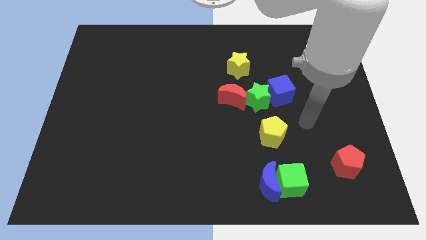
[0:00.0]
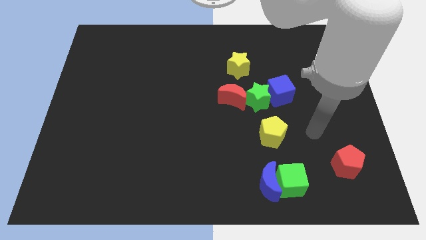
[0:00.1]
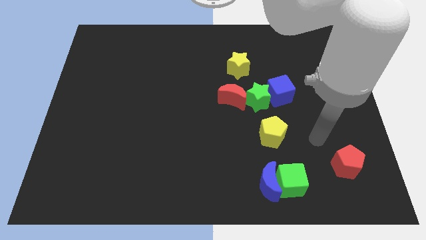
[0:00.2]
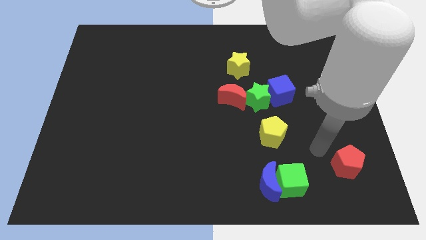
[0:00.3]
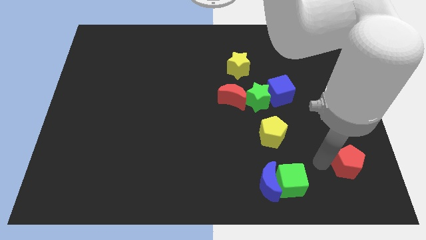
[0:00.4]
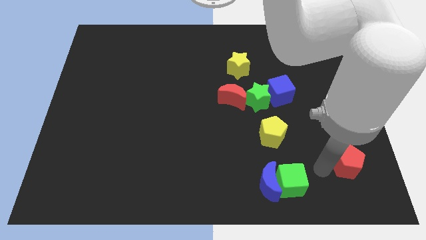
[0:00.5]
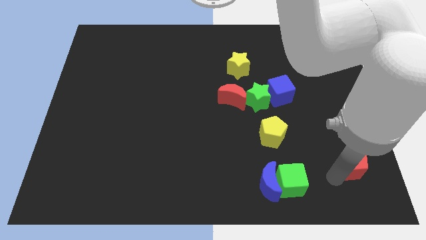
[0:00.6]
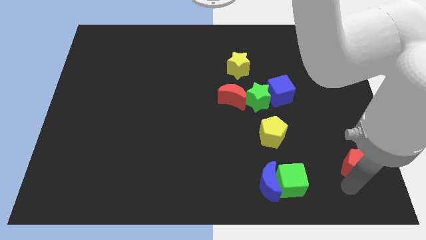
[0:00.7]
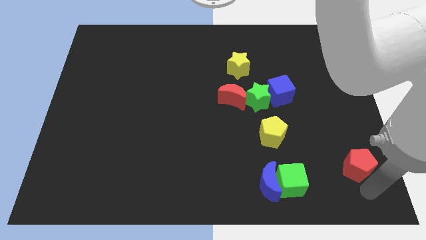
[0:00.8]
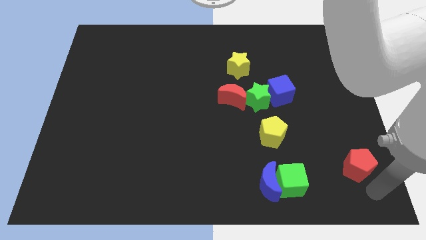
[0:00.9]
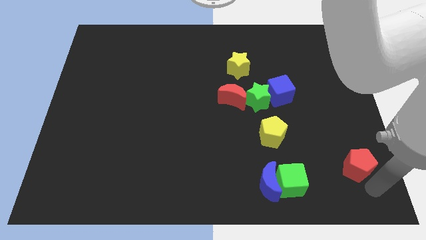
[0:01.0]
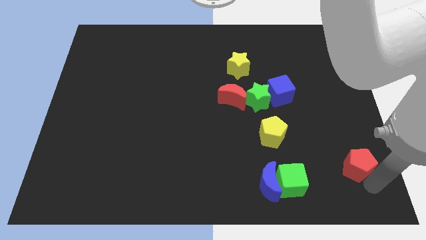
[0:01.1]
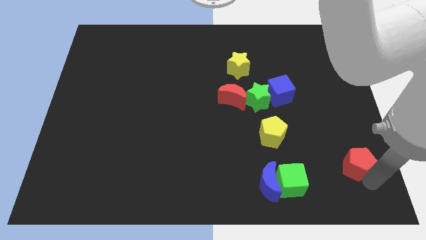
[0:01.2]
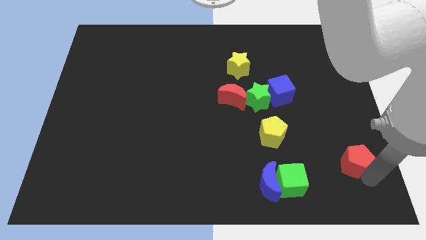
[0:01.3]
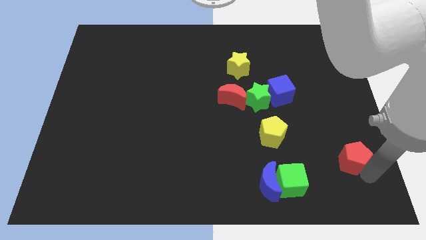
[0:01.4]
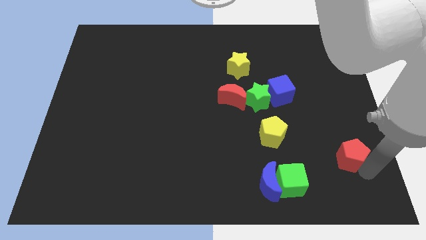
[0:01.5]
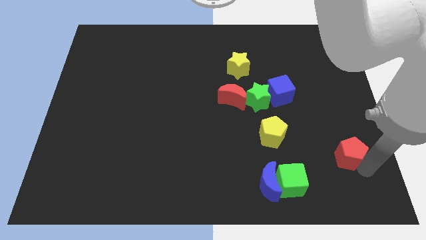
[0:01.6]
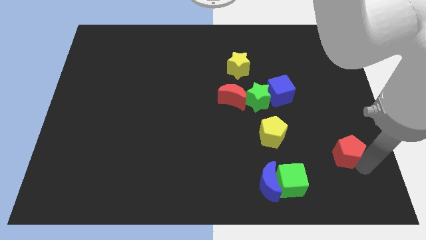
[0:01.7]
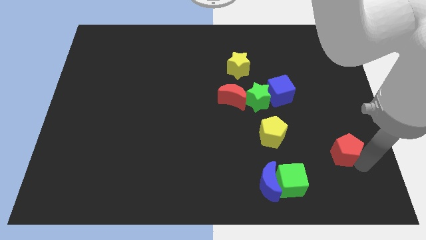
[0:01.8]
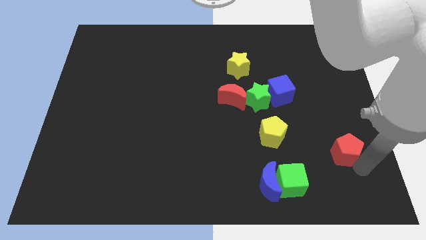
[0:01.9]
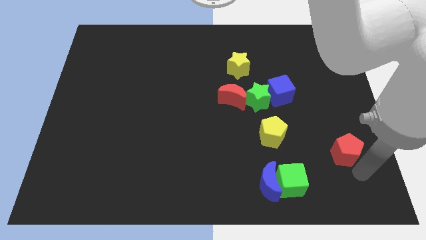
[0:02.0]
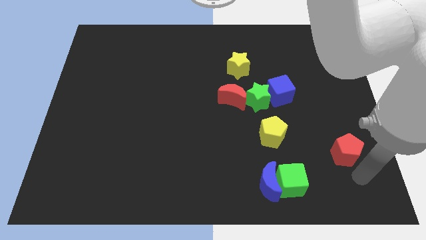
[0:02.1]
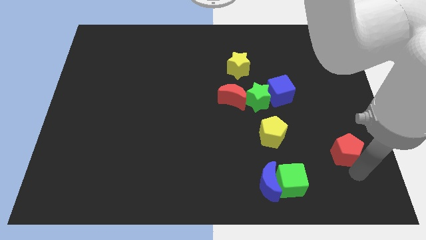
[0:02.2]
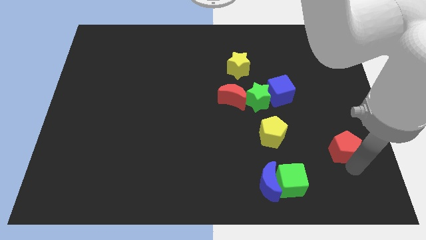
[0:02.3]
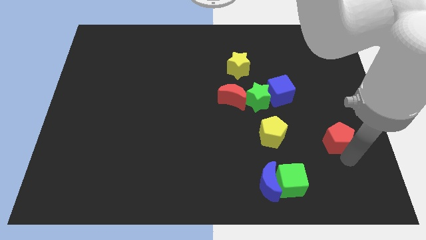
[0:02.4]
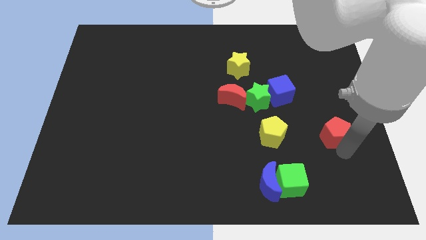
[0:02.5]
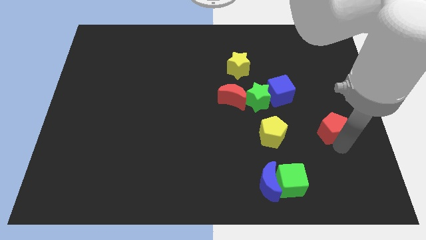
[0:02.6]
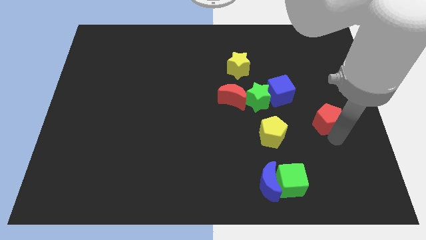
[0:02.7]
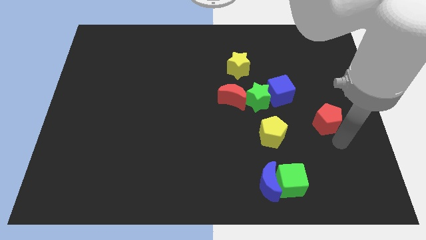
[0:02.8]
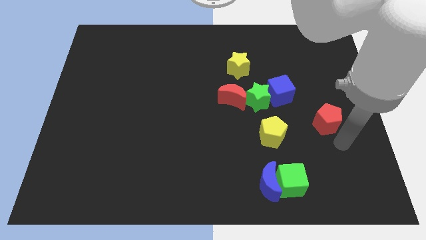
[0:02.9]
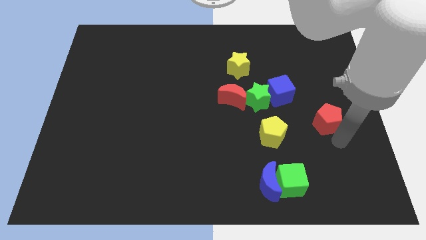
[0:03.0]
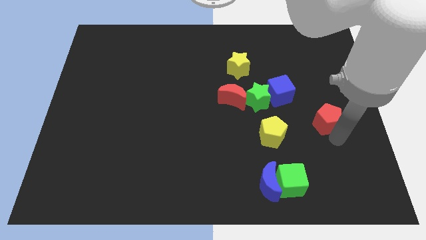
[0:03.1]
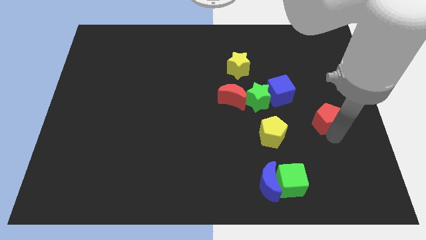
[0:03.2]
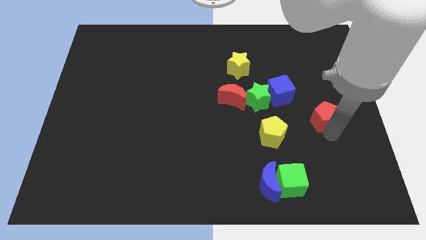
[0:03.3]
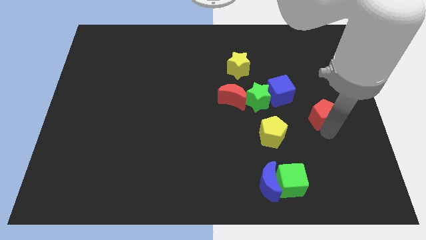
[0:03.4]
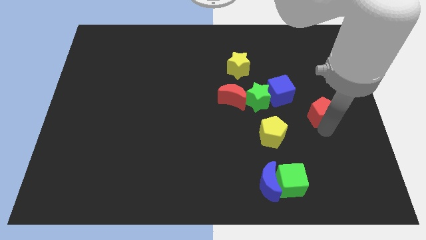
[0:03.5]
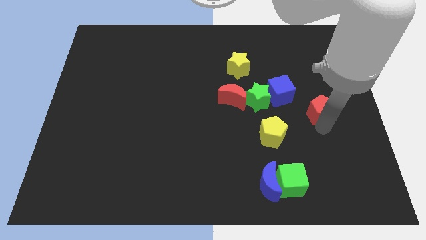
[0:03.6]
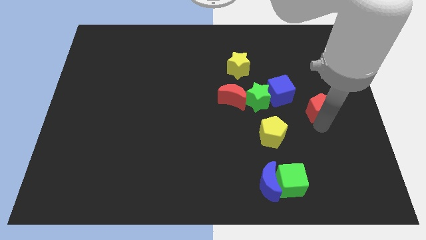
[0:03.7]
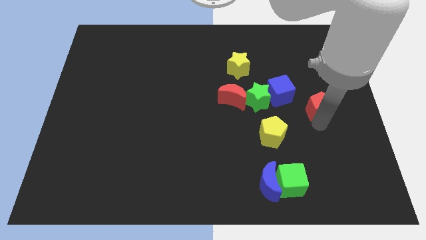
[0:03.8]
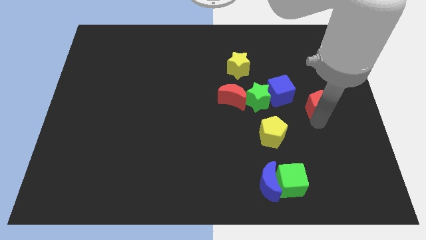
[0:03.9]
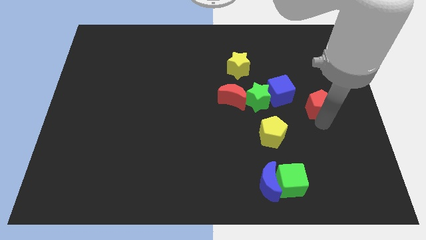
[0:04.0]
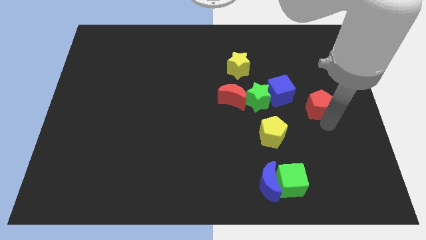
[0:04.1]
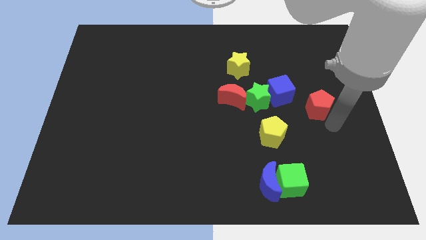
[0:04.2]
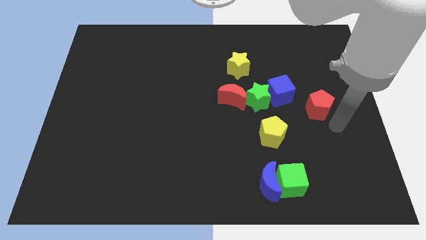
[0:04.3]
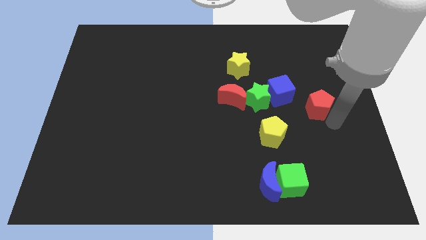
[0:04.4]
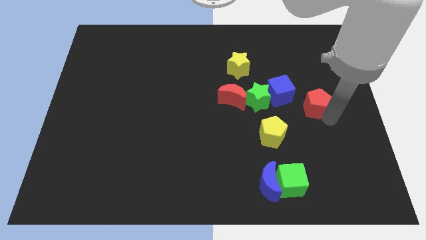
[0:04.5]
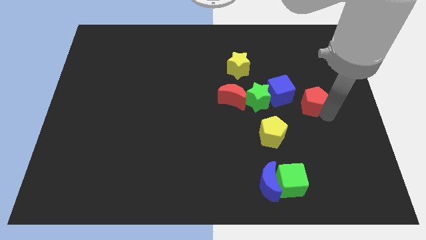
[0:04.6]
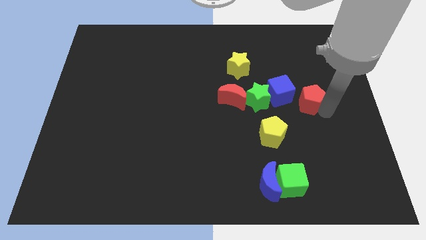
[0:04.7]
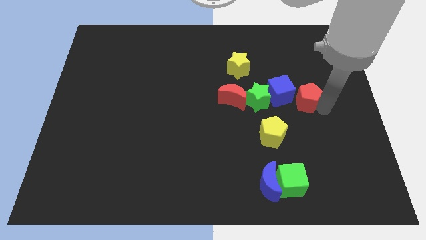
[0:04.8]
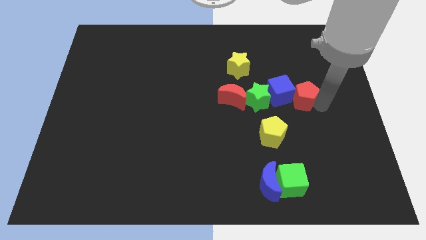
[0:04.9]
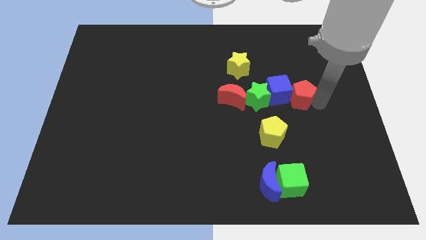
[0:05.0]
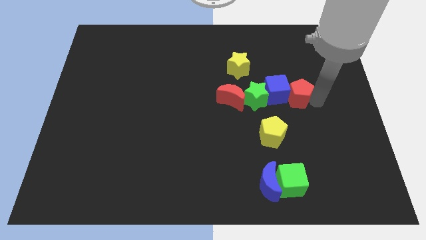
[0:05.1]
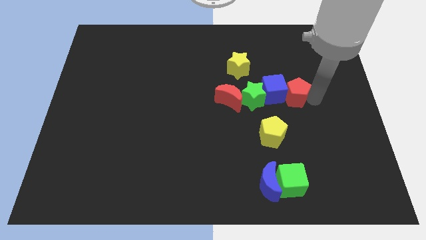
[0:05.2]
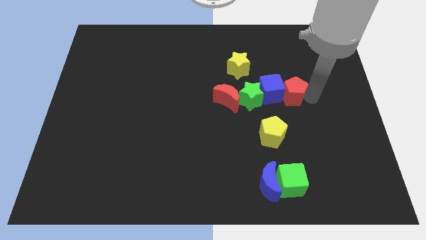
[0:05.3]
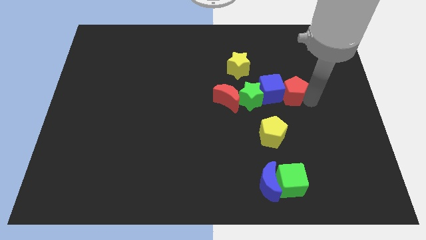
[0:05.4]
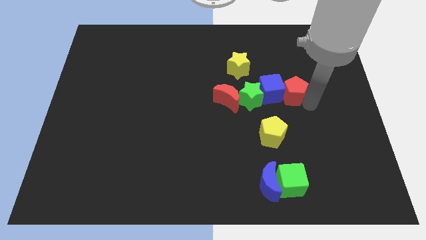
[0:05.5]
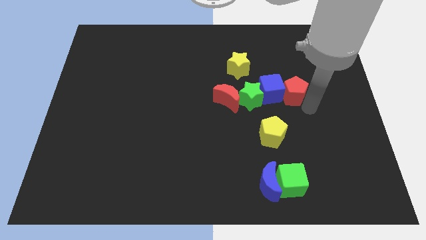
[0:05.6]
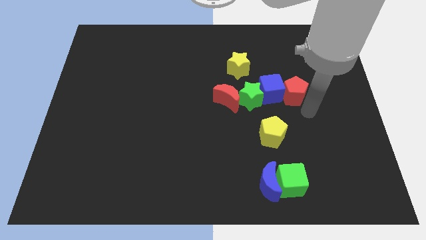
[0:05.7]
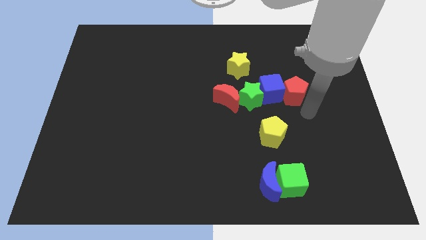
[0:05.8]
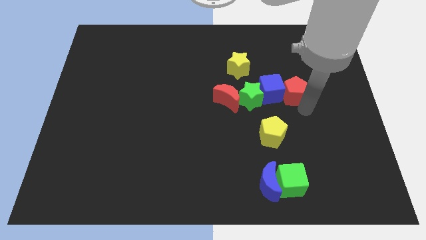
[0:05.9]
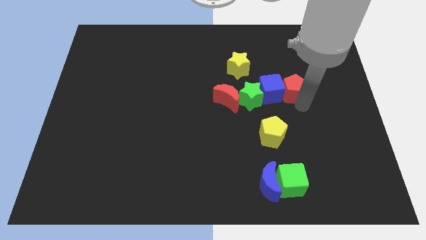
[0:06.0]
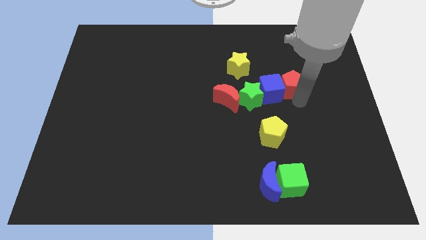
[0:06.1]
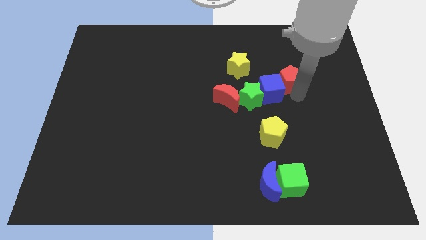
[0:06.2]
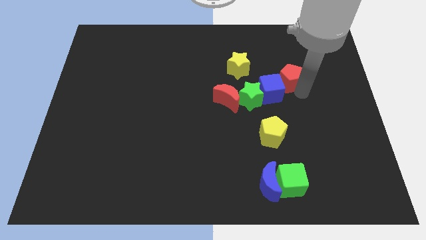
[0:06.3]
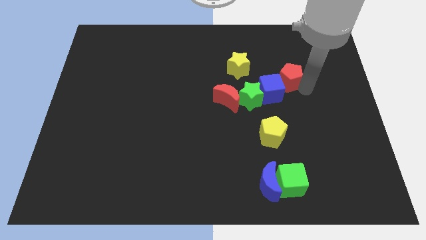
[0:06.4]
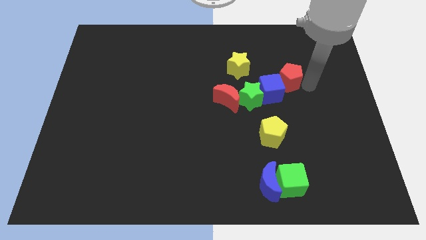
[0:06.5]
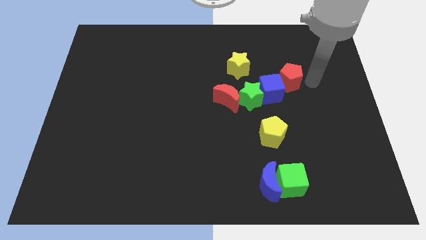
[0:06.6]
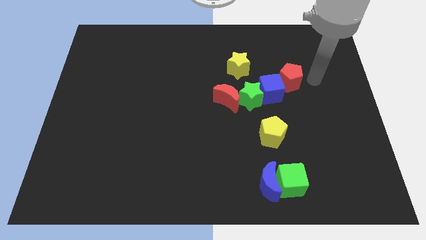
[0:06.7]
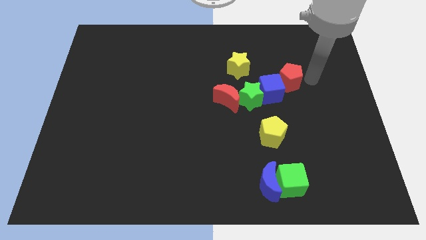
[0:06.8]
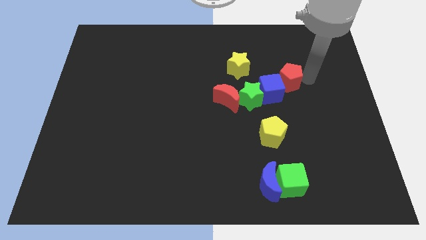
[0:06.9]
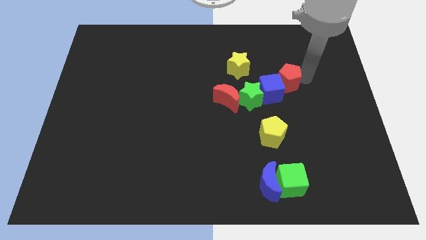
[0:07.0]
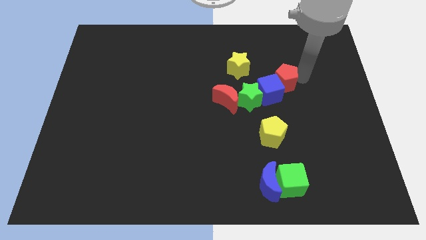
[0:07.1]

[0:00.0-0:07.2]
slide the red pentagon upwards and to the left diagonally

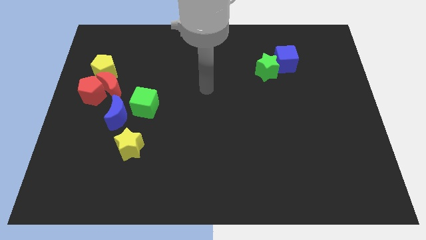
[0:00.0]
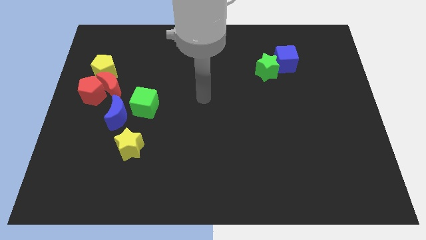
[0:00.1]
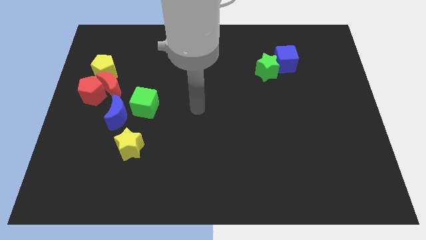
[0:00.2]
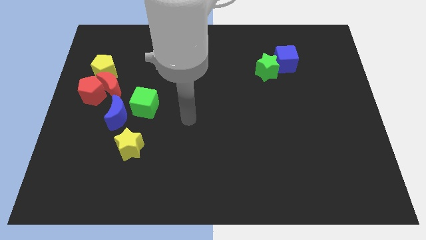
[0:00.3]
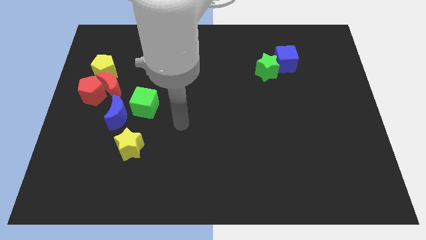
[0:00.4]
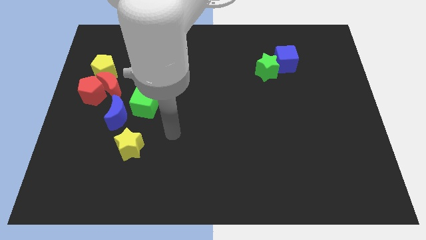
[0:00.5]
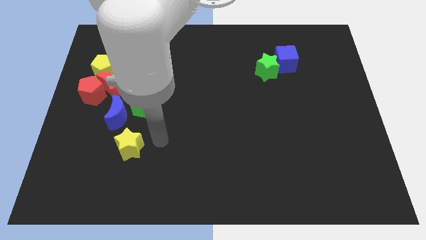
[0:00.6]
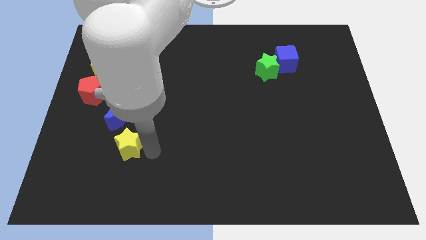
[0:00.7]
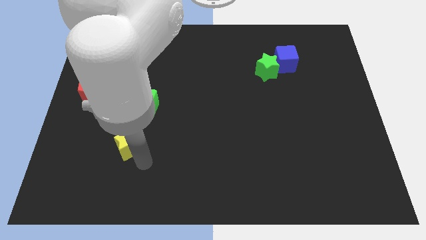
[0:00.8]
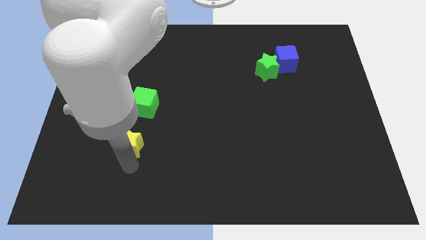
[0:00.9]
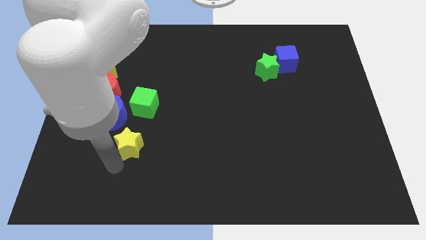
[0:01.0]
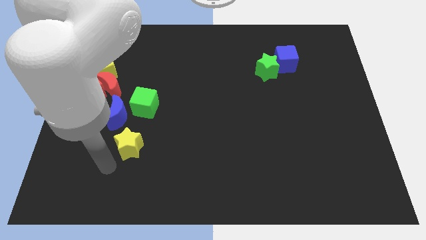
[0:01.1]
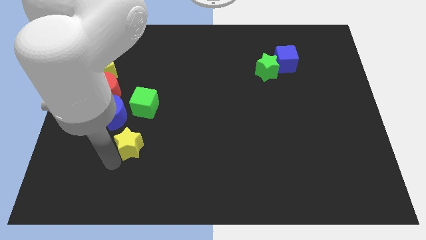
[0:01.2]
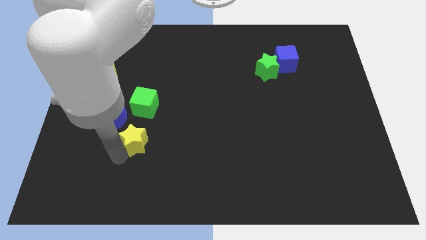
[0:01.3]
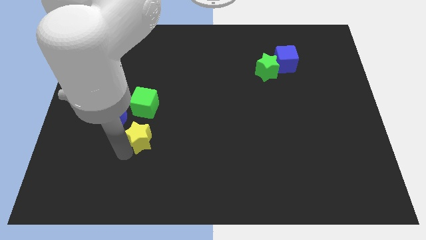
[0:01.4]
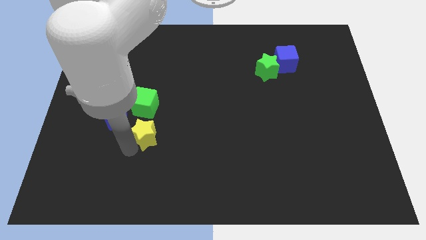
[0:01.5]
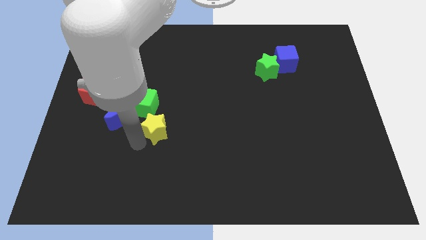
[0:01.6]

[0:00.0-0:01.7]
push the yellow star up and then right somewhat
